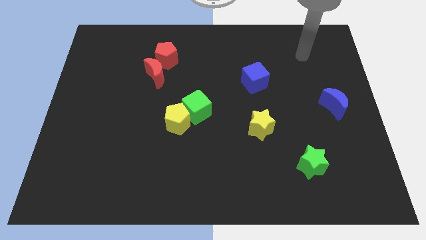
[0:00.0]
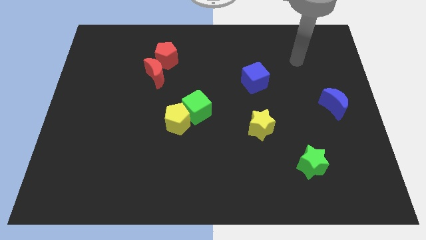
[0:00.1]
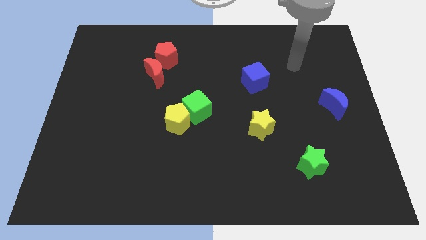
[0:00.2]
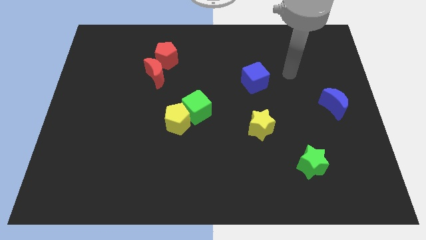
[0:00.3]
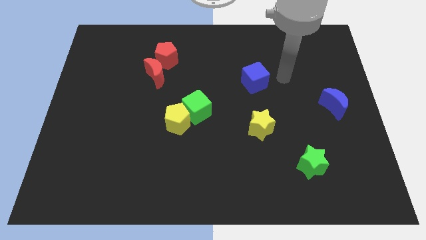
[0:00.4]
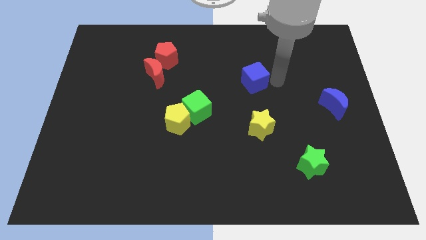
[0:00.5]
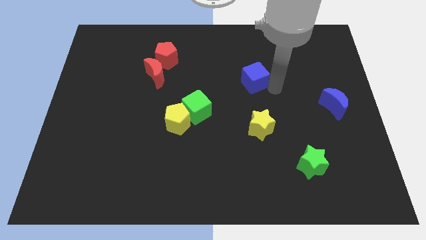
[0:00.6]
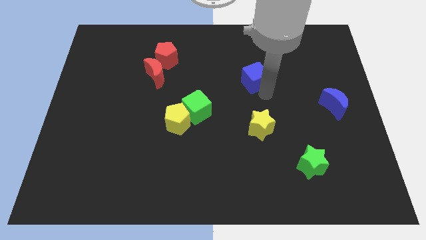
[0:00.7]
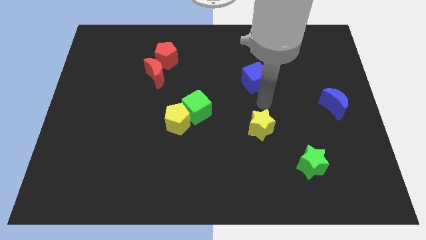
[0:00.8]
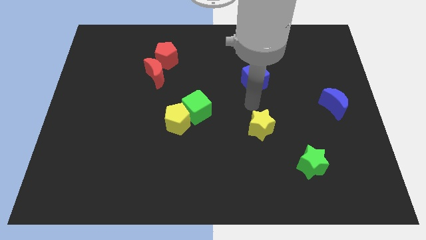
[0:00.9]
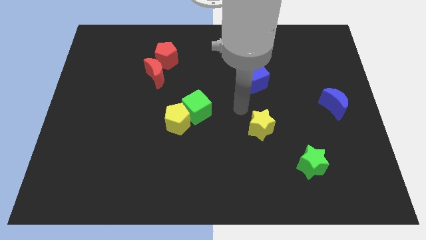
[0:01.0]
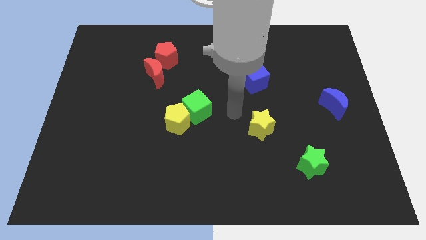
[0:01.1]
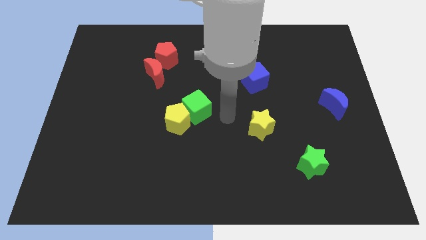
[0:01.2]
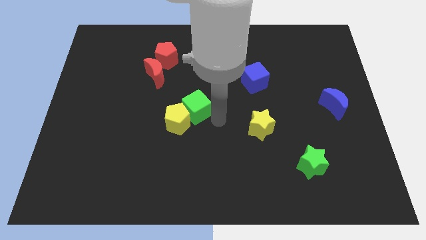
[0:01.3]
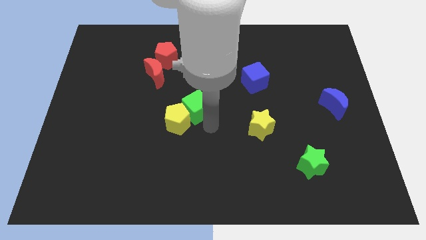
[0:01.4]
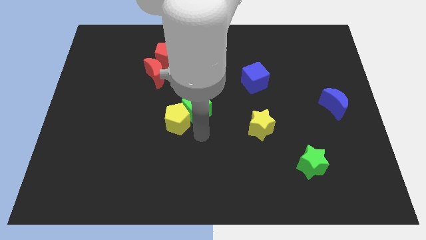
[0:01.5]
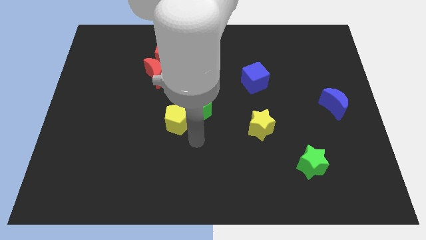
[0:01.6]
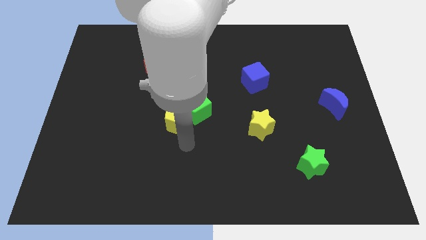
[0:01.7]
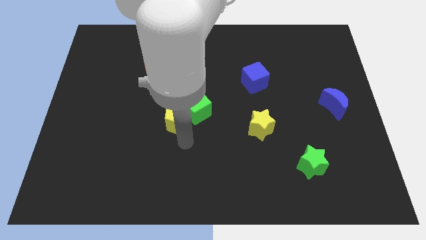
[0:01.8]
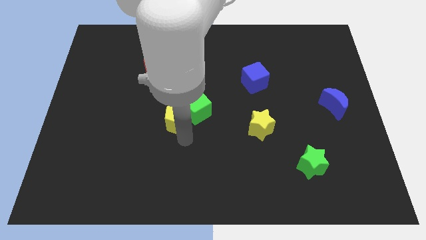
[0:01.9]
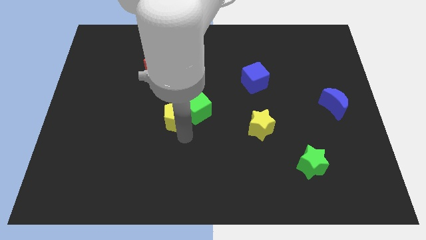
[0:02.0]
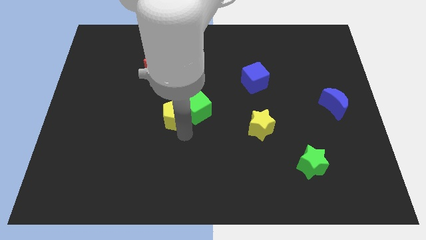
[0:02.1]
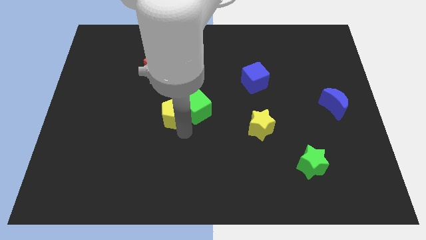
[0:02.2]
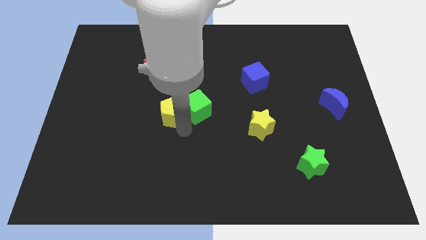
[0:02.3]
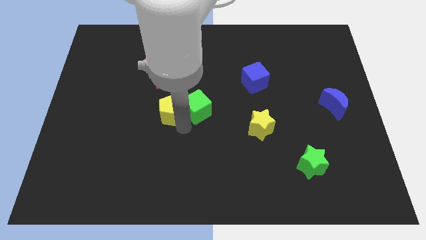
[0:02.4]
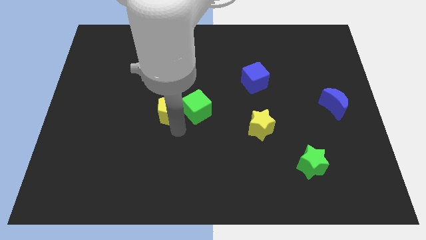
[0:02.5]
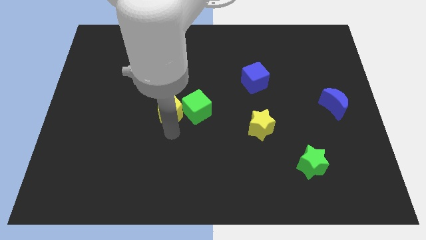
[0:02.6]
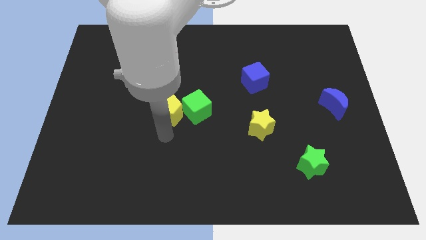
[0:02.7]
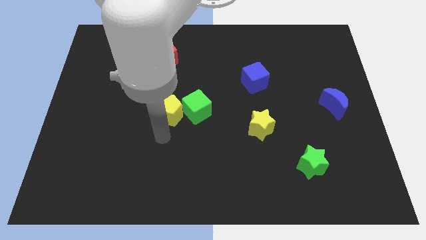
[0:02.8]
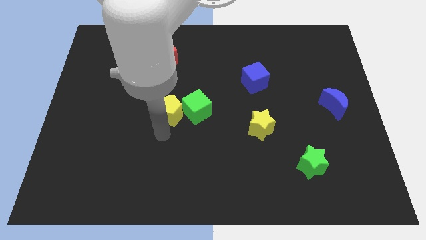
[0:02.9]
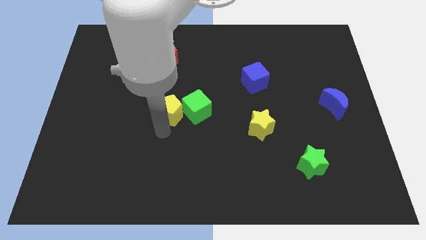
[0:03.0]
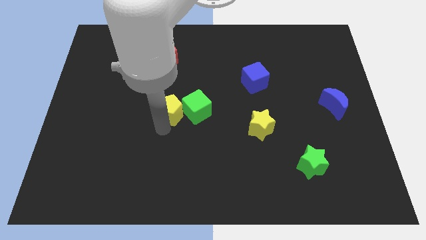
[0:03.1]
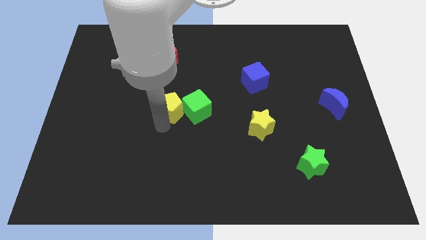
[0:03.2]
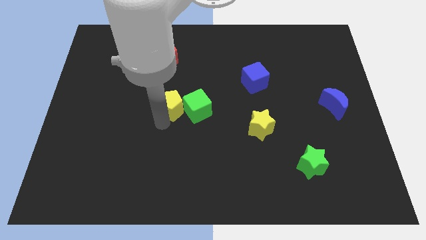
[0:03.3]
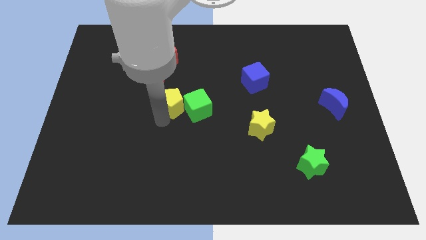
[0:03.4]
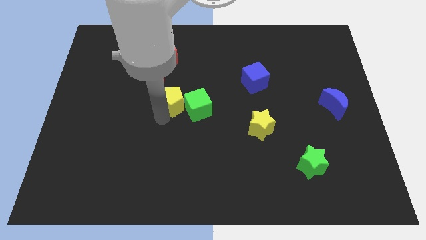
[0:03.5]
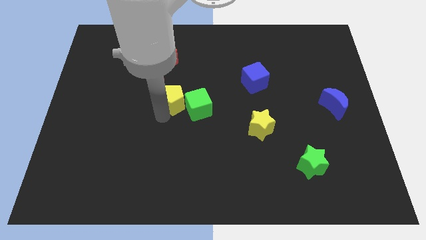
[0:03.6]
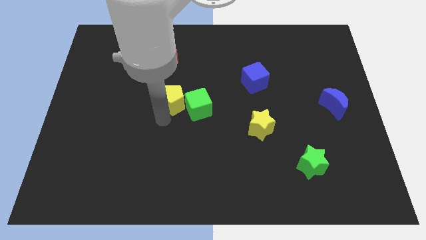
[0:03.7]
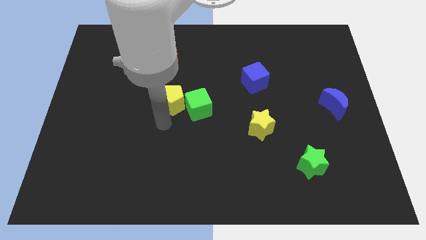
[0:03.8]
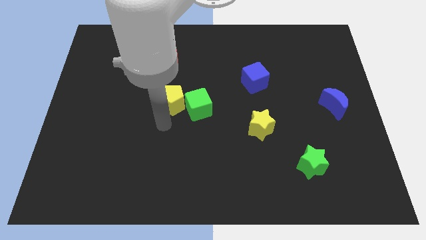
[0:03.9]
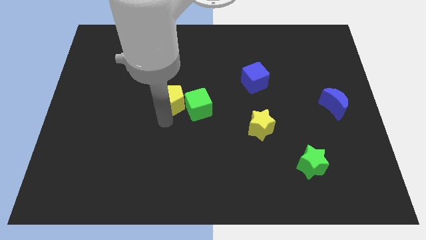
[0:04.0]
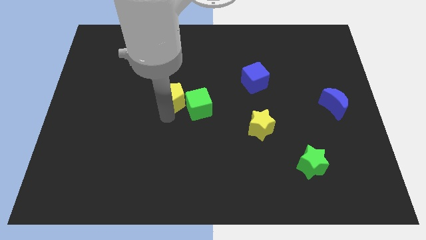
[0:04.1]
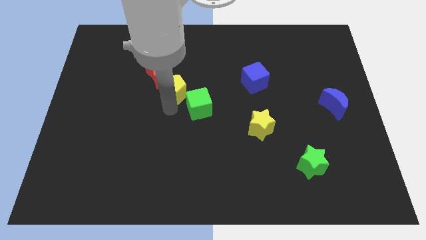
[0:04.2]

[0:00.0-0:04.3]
move the yellow pentagon somewhat upwards

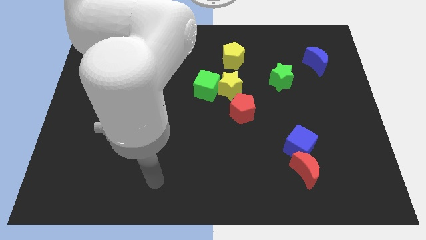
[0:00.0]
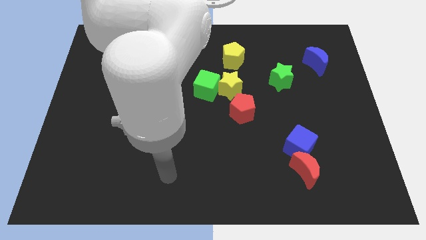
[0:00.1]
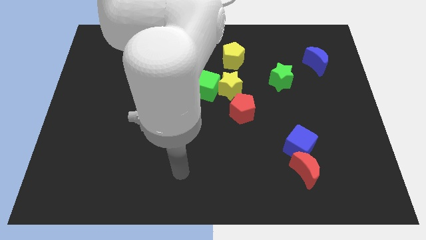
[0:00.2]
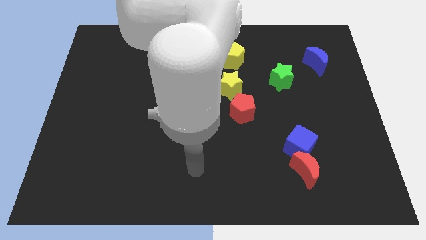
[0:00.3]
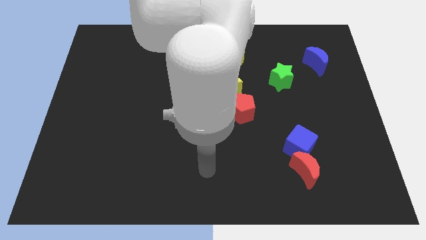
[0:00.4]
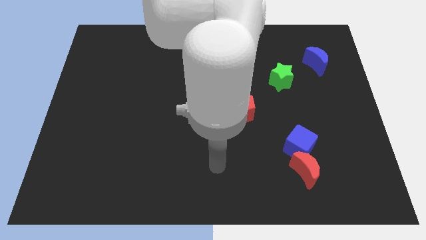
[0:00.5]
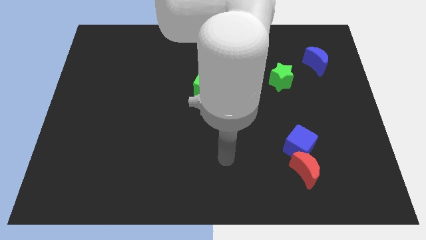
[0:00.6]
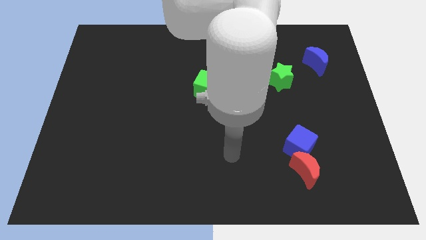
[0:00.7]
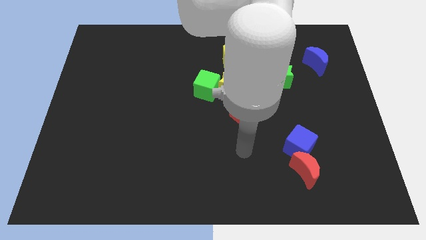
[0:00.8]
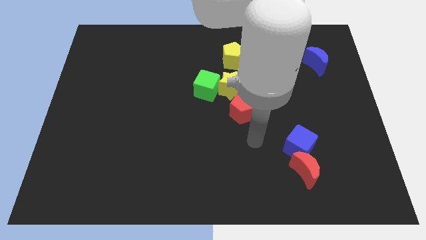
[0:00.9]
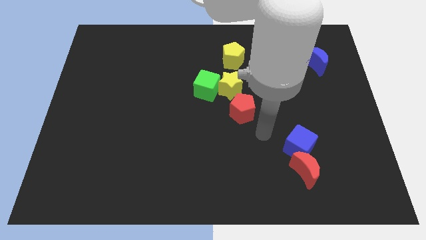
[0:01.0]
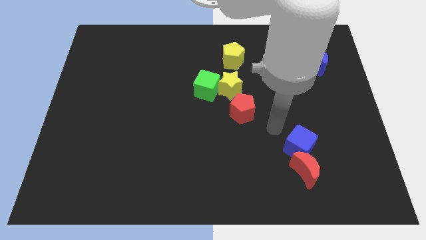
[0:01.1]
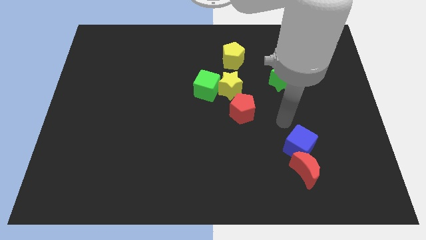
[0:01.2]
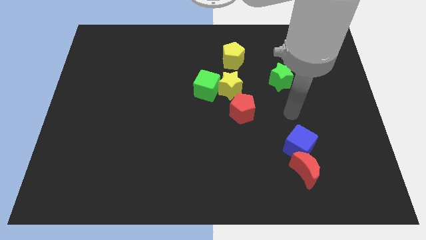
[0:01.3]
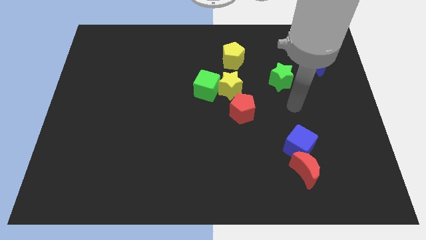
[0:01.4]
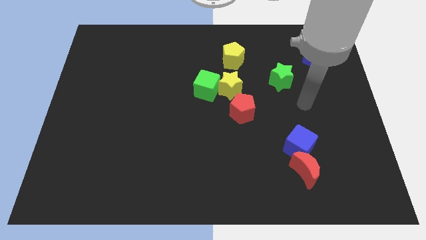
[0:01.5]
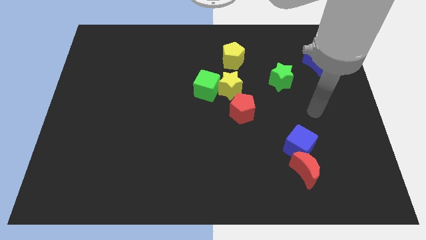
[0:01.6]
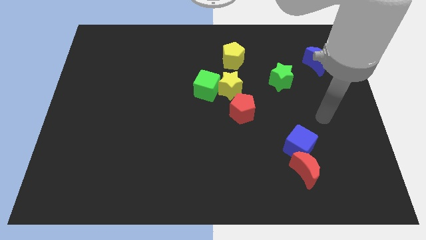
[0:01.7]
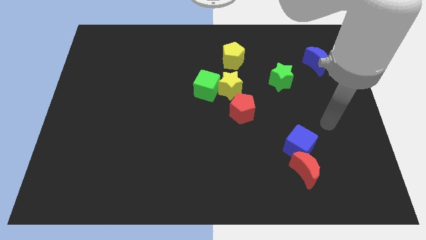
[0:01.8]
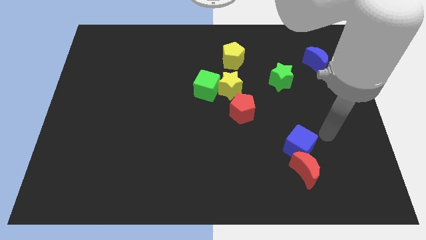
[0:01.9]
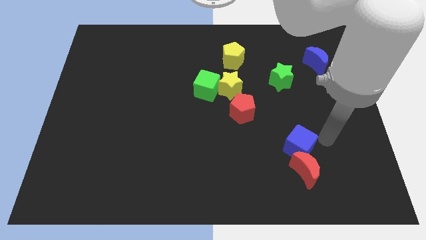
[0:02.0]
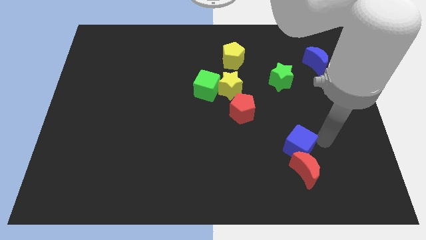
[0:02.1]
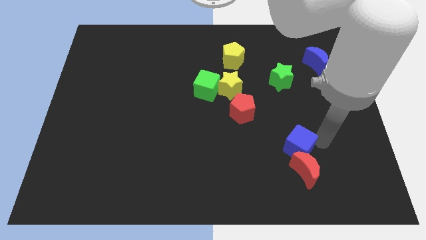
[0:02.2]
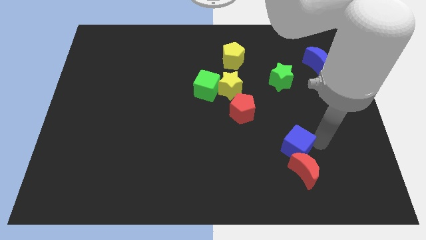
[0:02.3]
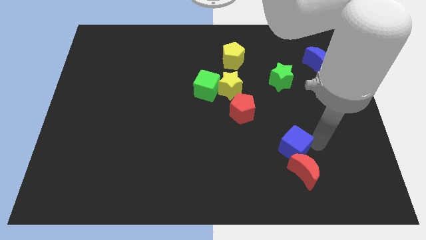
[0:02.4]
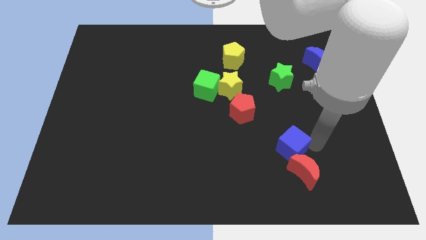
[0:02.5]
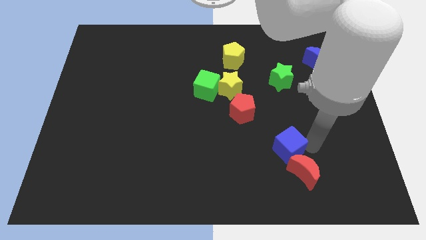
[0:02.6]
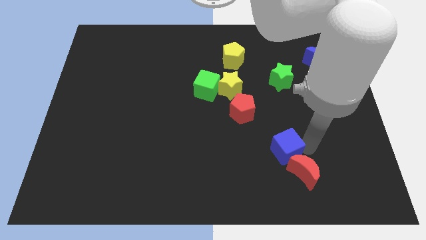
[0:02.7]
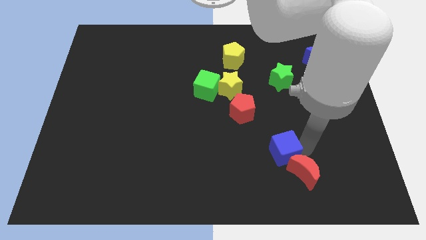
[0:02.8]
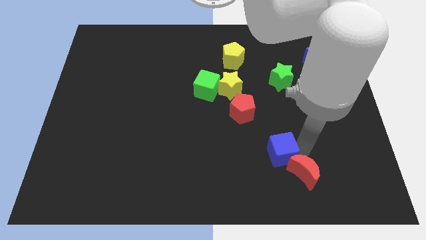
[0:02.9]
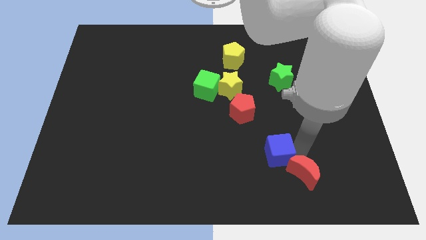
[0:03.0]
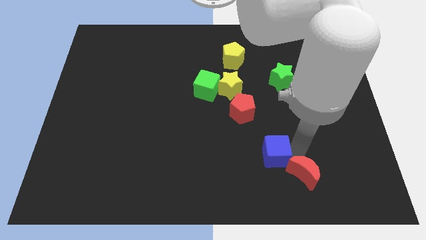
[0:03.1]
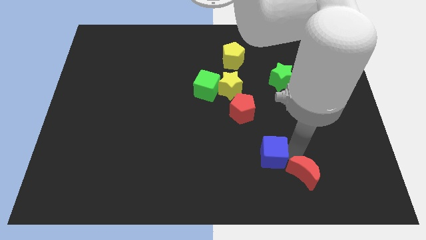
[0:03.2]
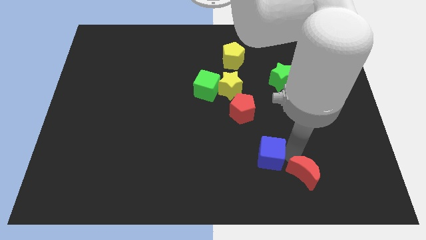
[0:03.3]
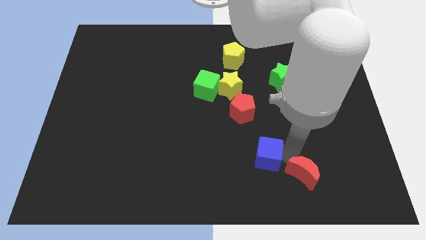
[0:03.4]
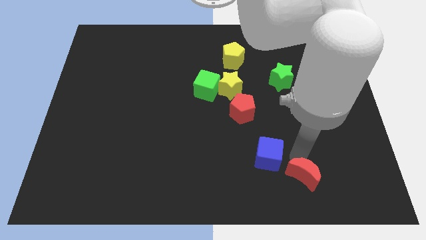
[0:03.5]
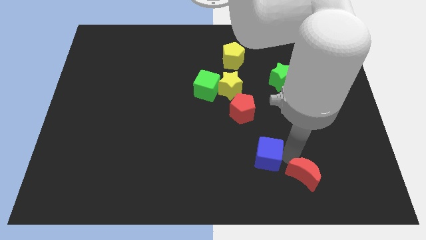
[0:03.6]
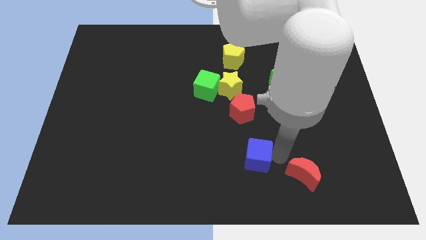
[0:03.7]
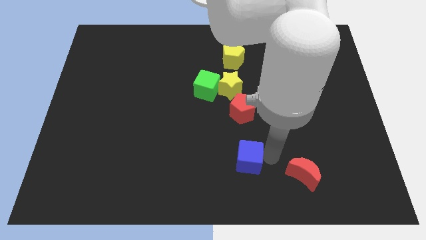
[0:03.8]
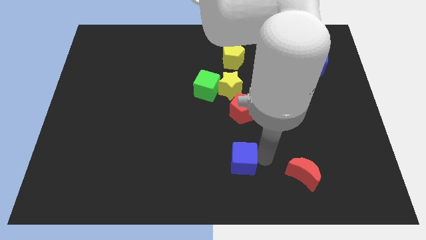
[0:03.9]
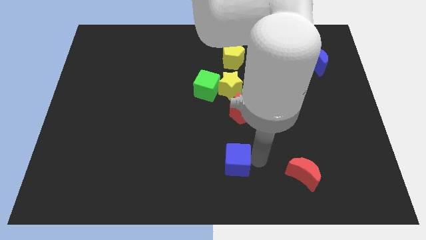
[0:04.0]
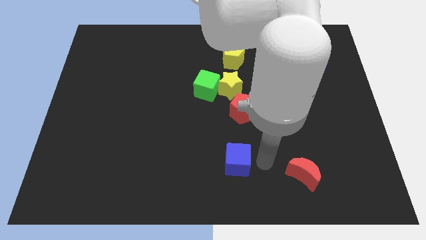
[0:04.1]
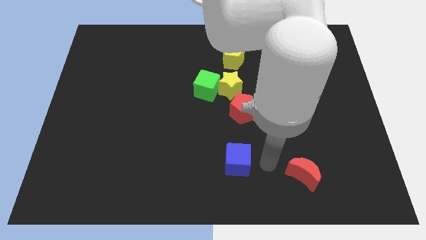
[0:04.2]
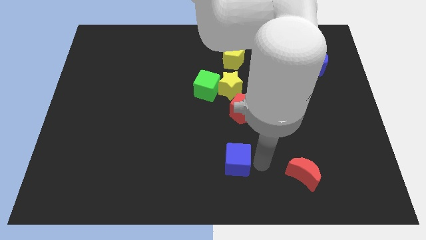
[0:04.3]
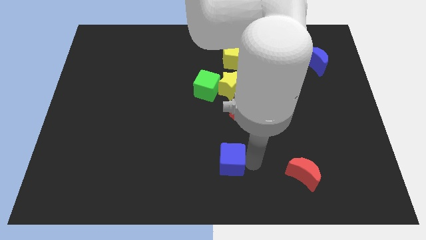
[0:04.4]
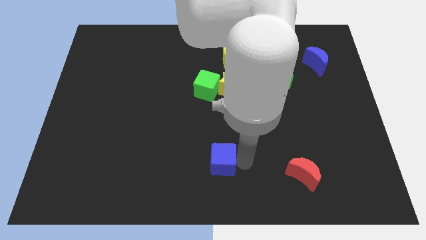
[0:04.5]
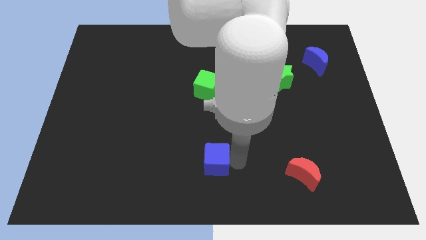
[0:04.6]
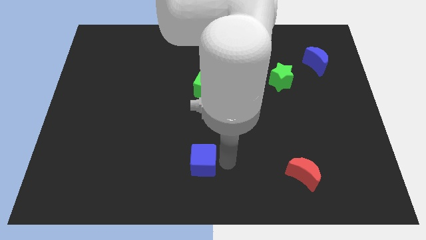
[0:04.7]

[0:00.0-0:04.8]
move the blue cube left
